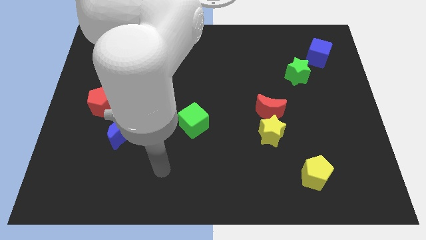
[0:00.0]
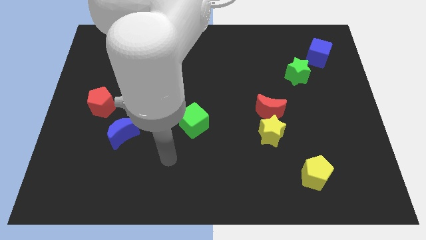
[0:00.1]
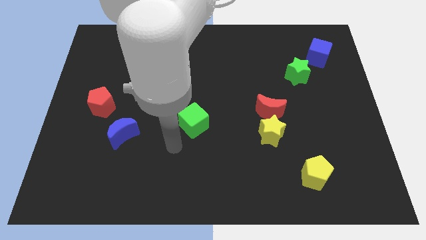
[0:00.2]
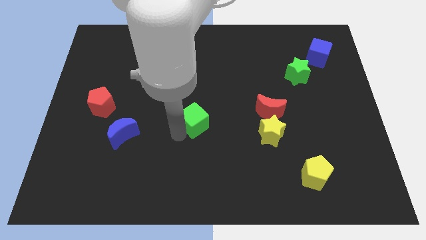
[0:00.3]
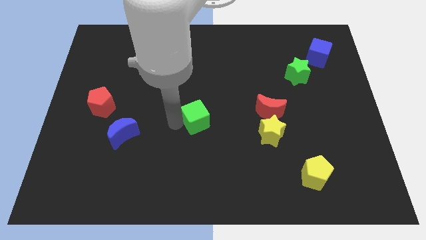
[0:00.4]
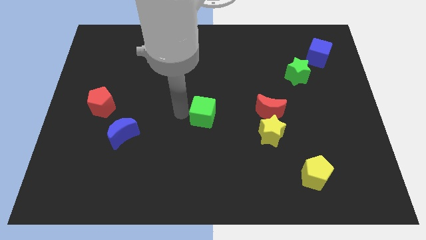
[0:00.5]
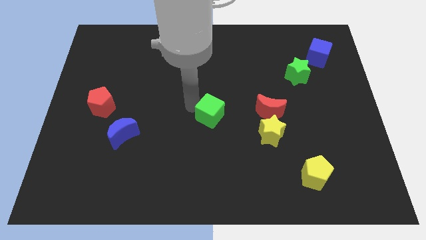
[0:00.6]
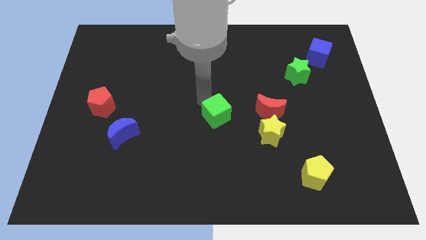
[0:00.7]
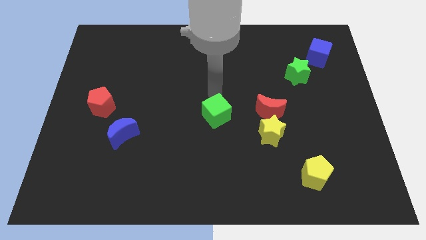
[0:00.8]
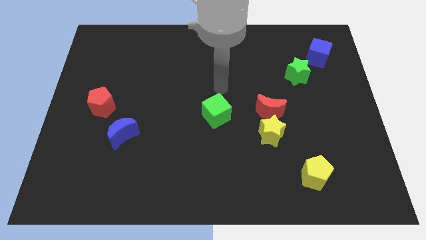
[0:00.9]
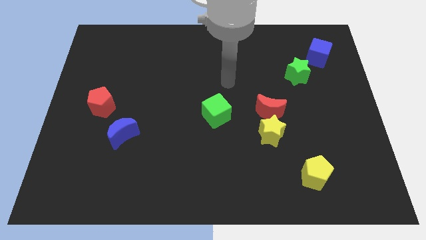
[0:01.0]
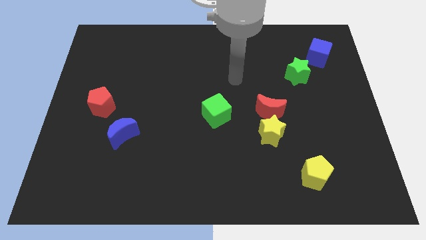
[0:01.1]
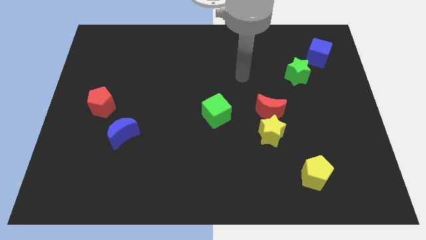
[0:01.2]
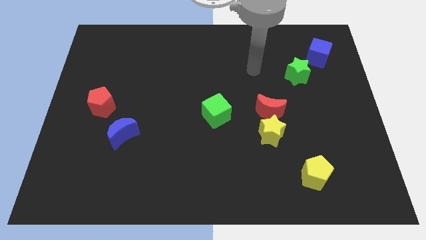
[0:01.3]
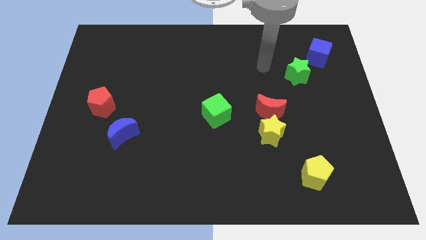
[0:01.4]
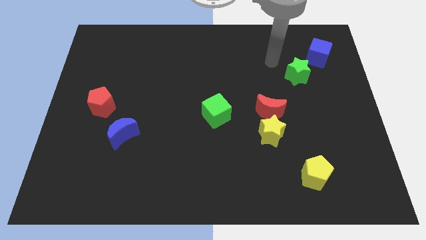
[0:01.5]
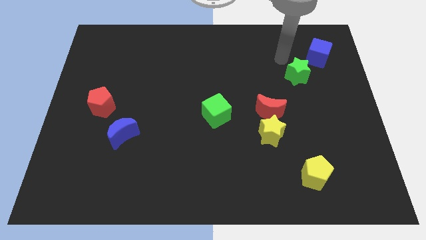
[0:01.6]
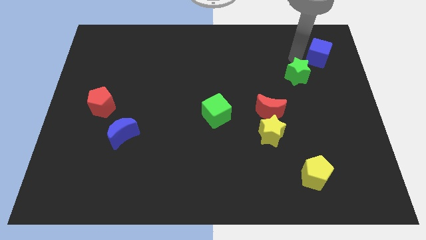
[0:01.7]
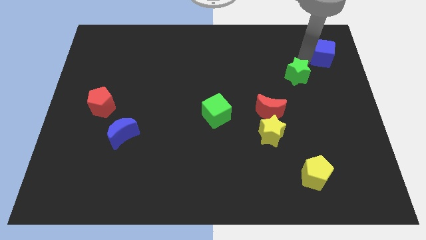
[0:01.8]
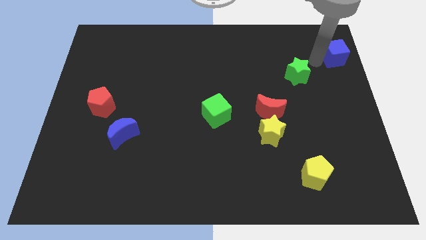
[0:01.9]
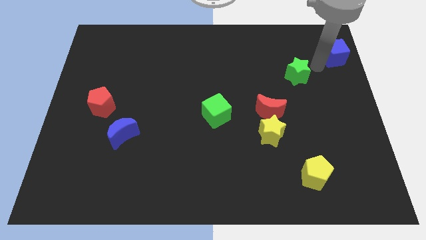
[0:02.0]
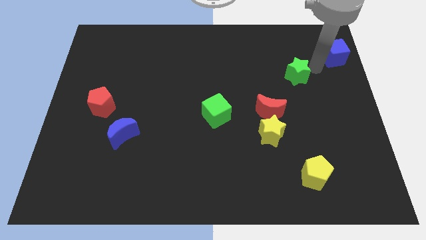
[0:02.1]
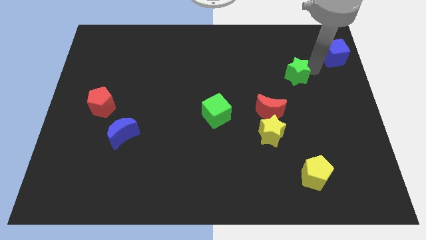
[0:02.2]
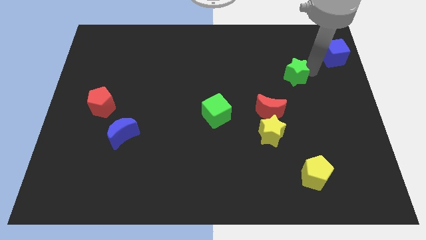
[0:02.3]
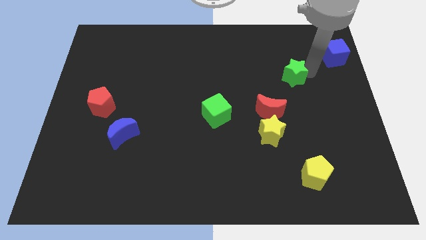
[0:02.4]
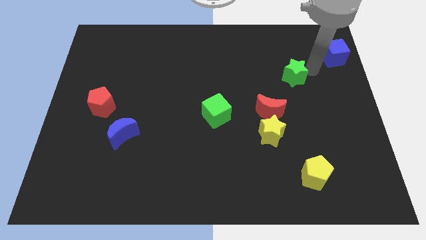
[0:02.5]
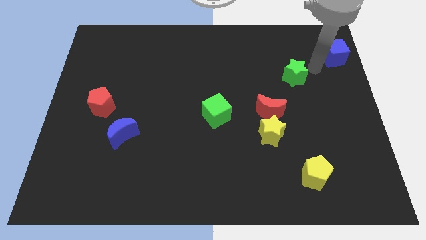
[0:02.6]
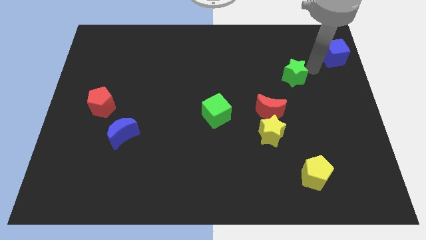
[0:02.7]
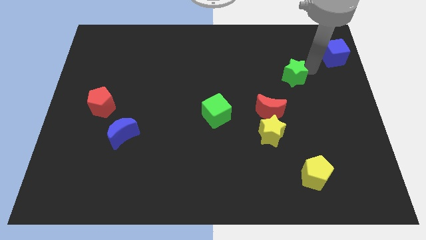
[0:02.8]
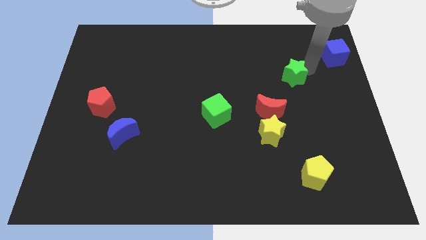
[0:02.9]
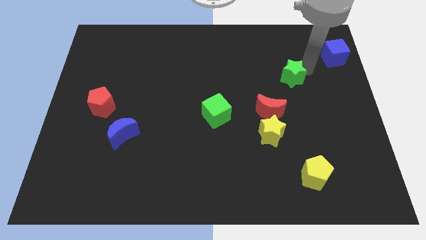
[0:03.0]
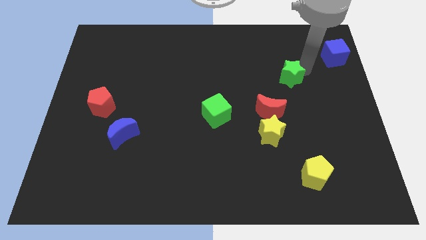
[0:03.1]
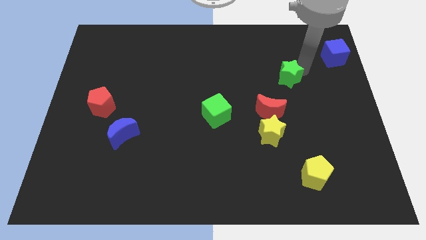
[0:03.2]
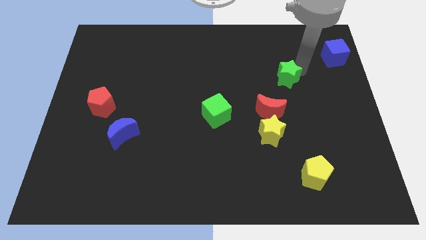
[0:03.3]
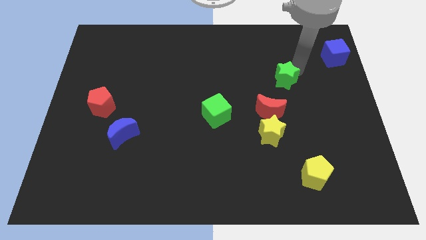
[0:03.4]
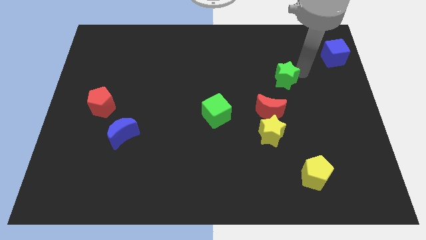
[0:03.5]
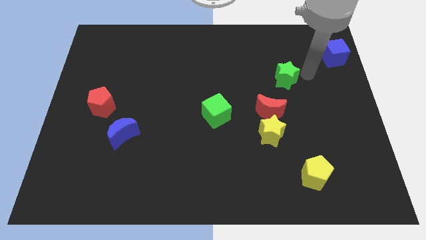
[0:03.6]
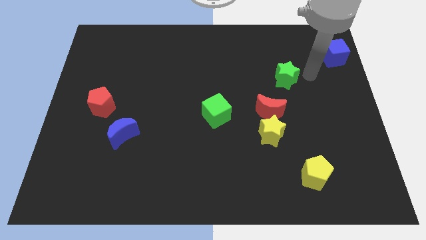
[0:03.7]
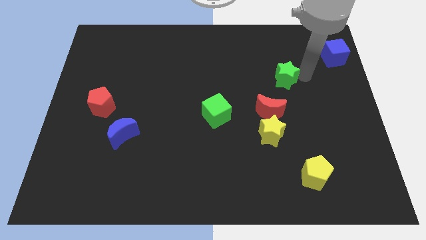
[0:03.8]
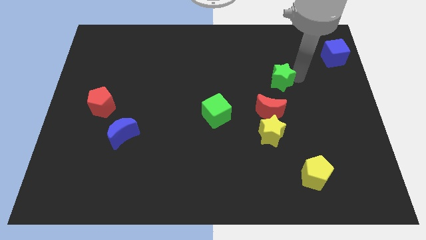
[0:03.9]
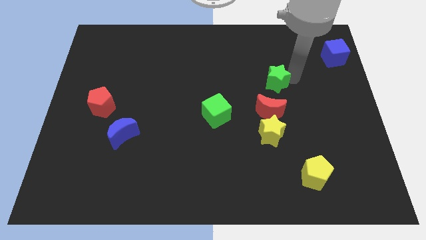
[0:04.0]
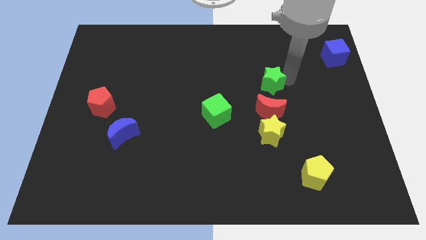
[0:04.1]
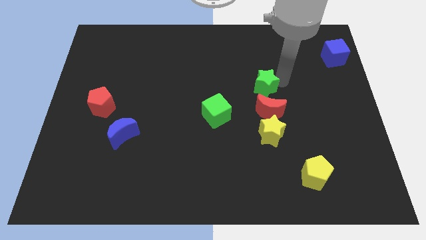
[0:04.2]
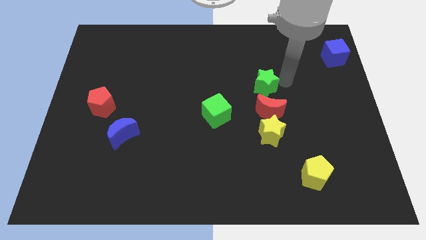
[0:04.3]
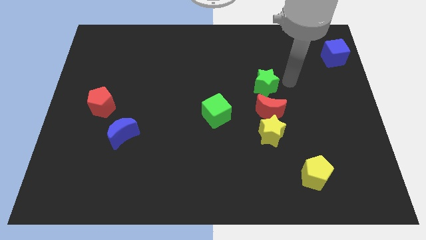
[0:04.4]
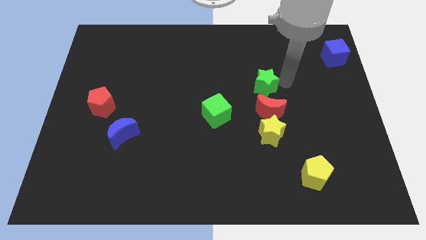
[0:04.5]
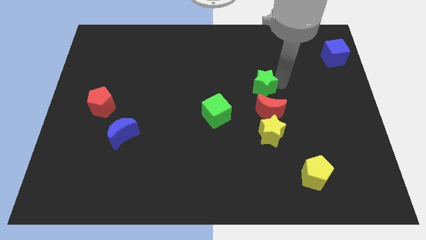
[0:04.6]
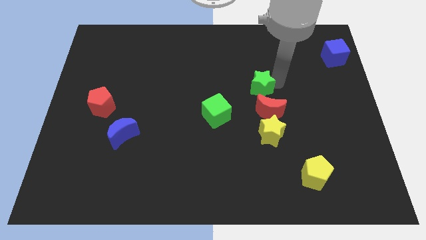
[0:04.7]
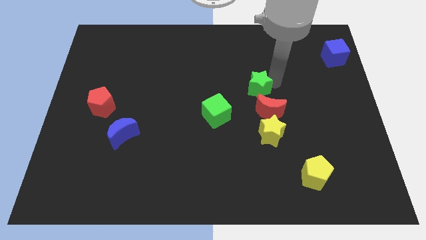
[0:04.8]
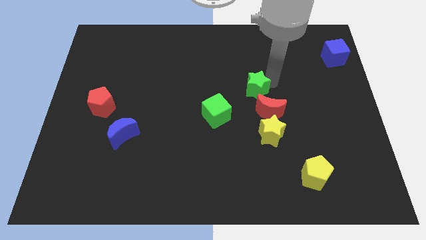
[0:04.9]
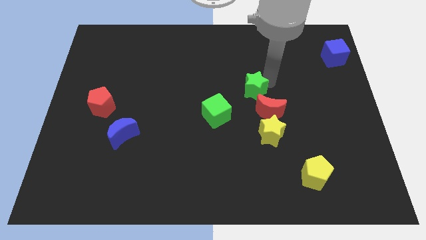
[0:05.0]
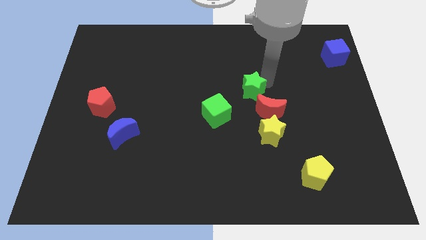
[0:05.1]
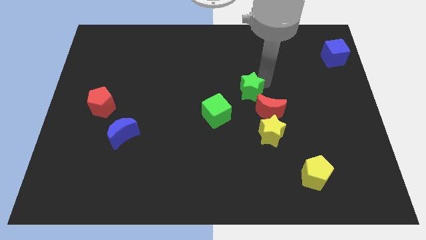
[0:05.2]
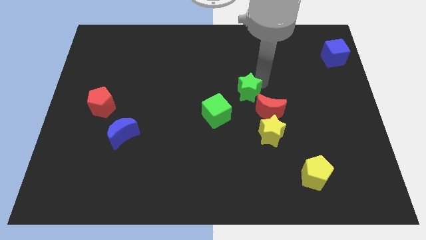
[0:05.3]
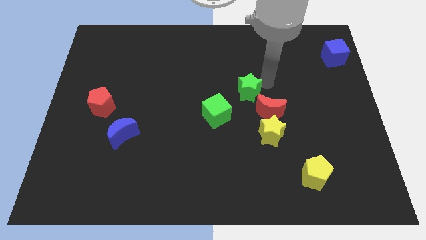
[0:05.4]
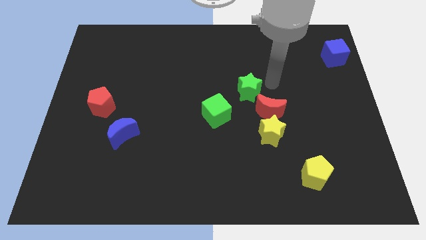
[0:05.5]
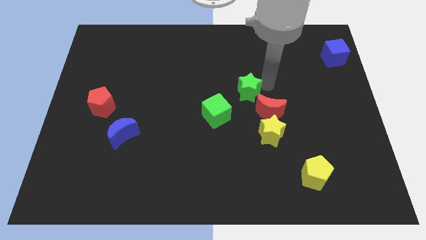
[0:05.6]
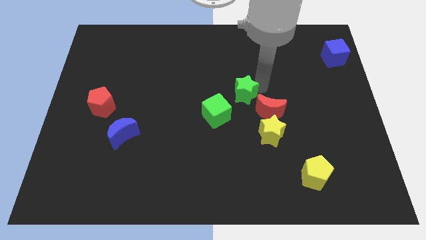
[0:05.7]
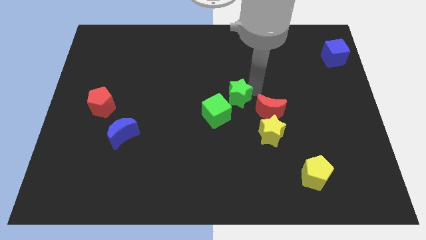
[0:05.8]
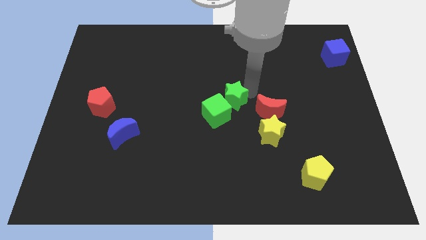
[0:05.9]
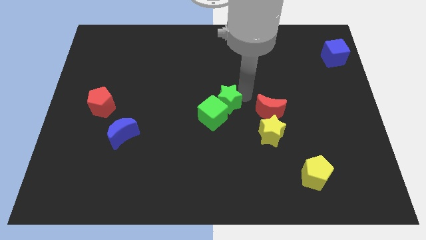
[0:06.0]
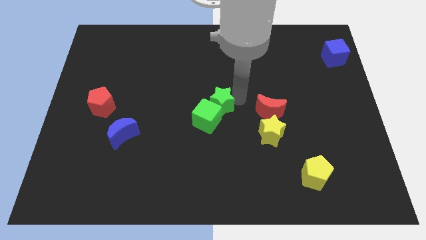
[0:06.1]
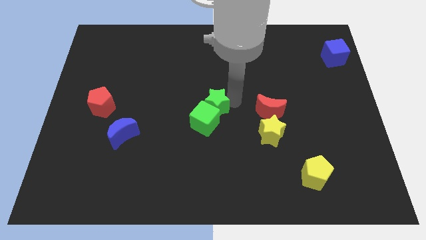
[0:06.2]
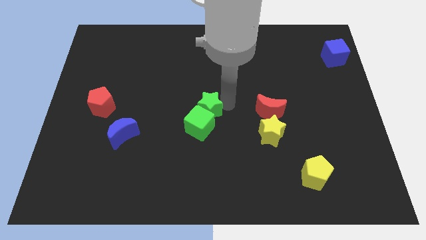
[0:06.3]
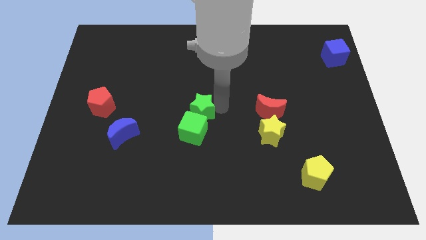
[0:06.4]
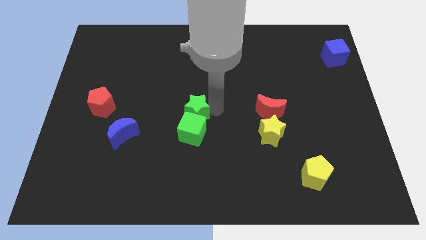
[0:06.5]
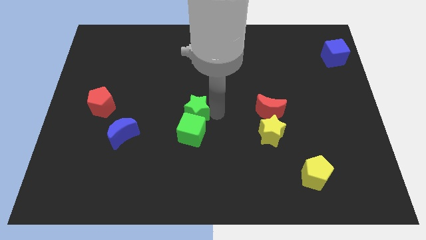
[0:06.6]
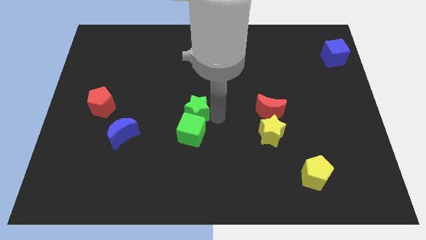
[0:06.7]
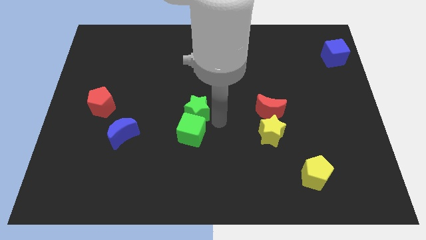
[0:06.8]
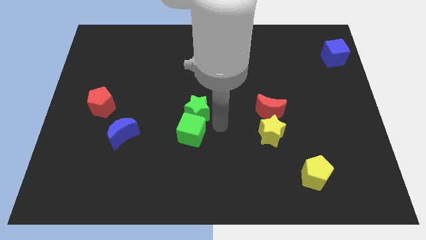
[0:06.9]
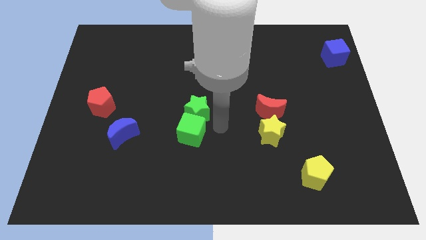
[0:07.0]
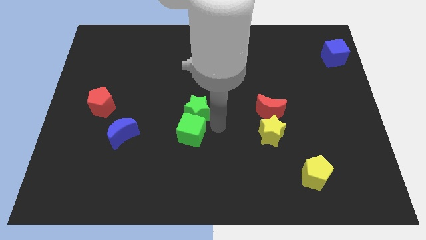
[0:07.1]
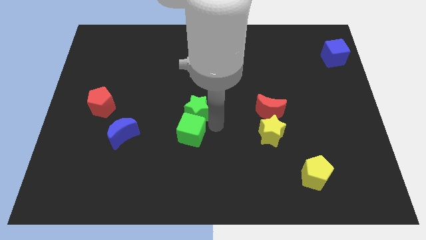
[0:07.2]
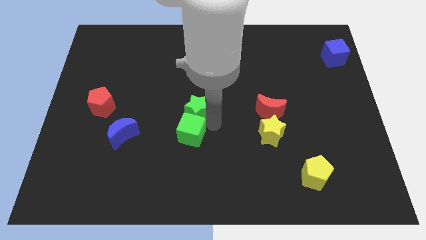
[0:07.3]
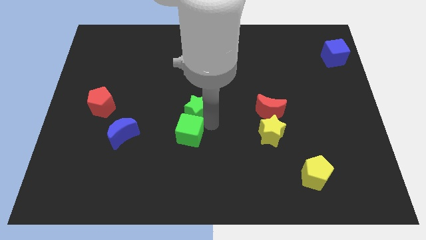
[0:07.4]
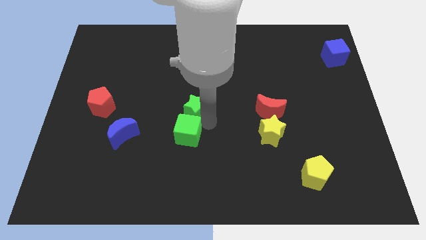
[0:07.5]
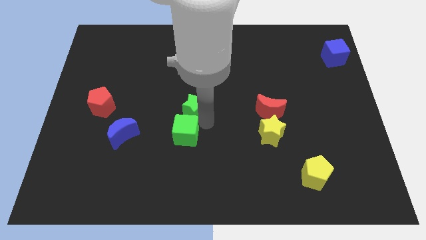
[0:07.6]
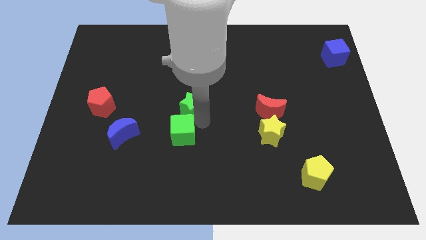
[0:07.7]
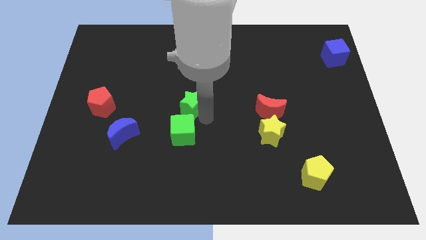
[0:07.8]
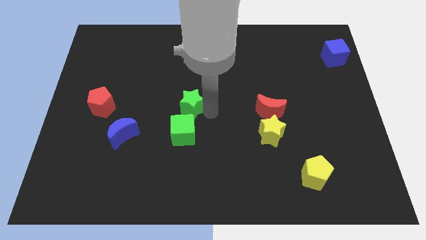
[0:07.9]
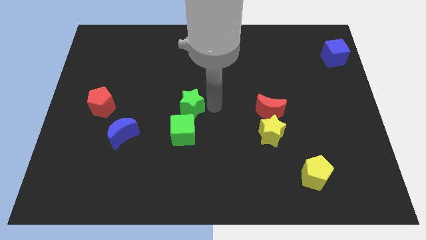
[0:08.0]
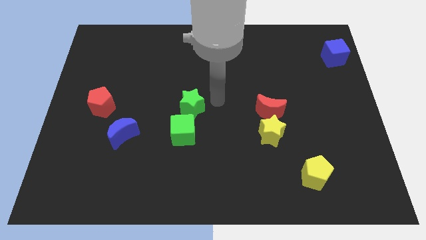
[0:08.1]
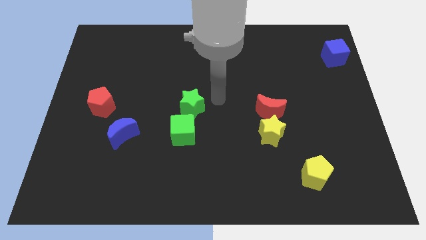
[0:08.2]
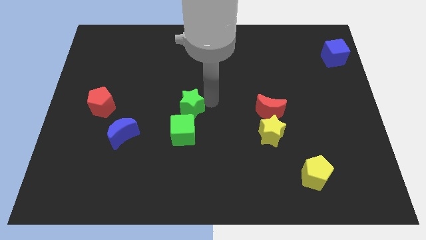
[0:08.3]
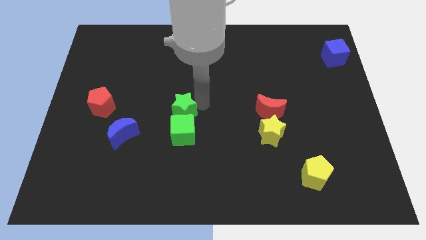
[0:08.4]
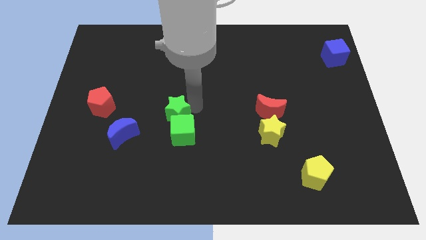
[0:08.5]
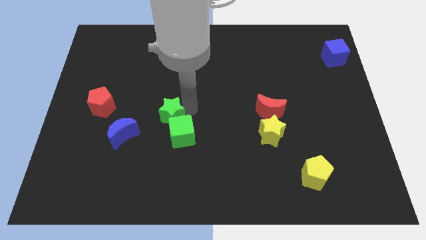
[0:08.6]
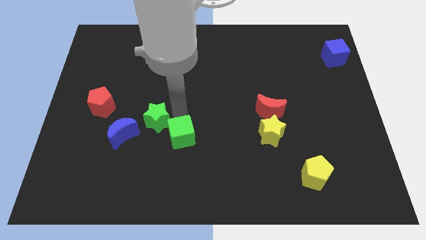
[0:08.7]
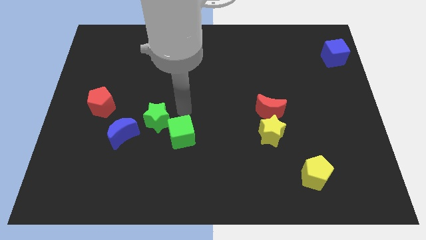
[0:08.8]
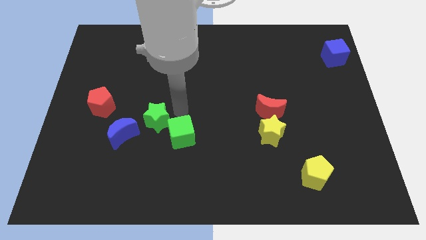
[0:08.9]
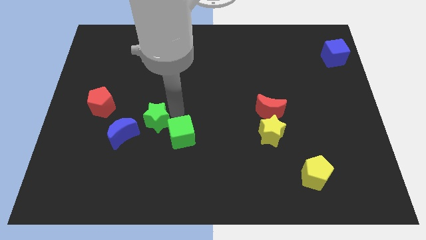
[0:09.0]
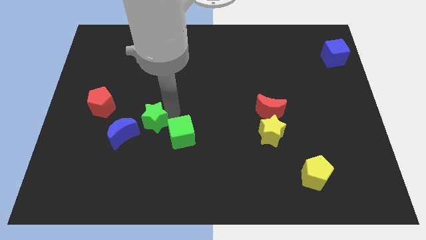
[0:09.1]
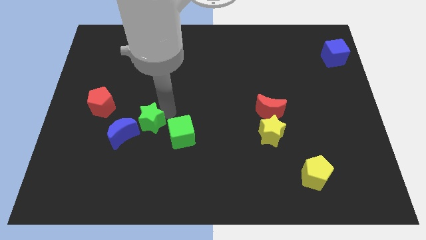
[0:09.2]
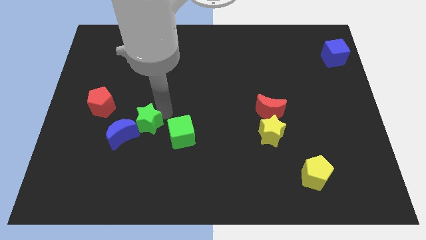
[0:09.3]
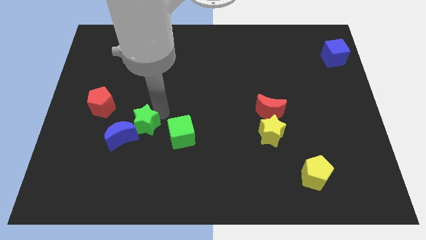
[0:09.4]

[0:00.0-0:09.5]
put the green star towards the blue moon
